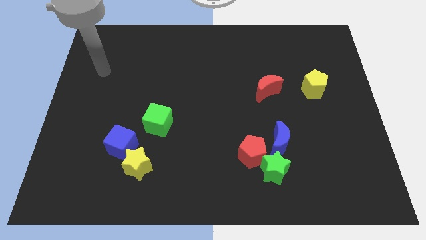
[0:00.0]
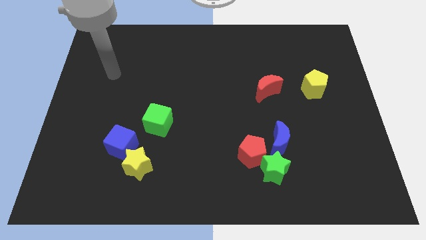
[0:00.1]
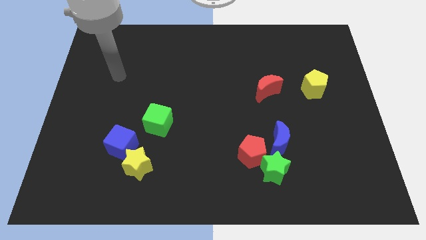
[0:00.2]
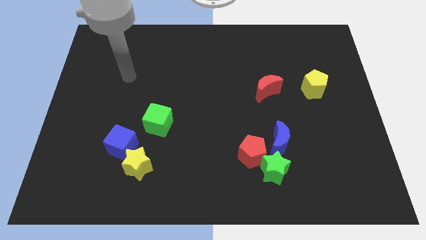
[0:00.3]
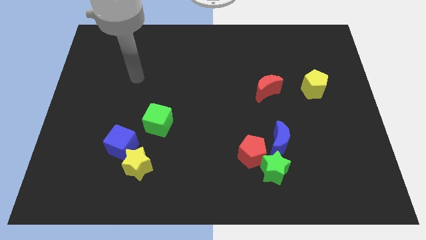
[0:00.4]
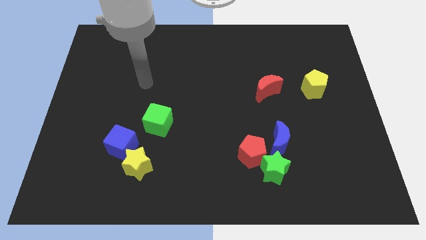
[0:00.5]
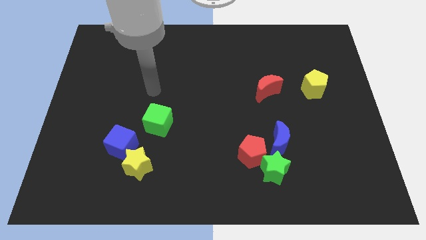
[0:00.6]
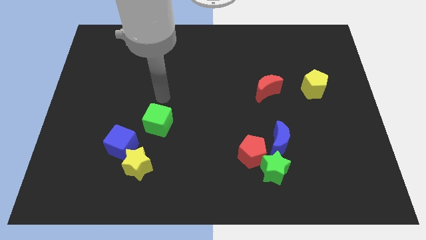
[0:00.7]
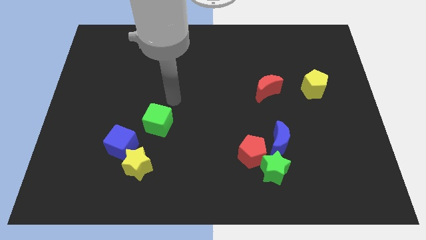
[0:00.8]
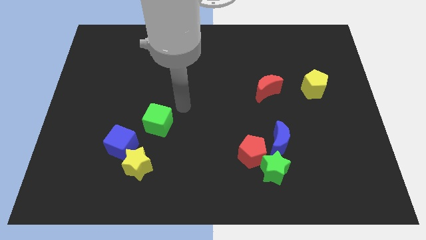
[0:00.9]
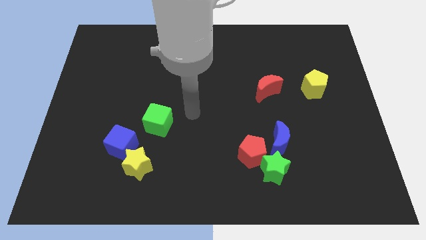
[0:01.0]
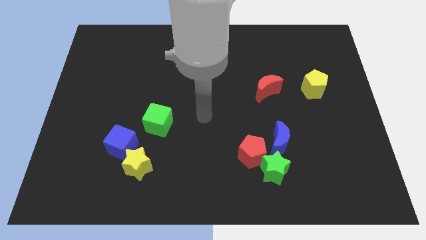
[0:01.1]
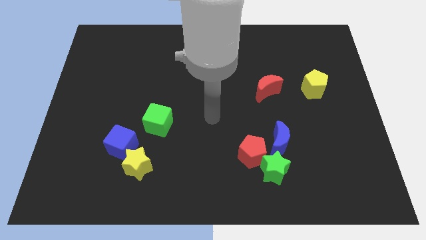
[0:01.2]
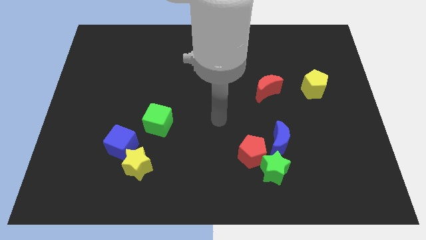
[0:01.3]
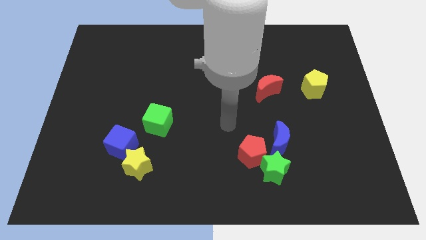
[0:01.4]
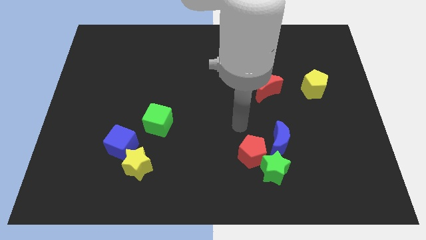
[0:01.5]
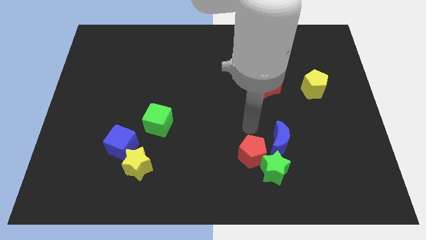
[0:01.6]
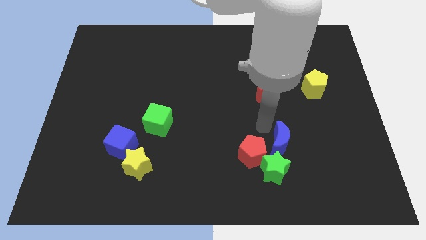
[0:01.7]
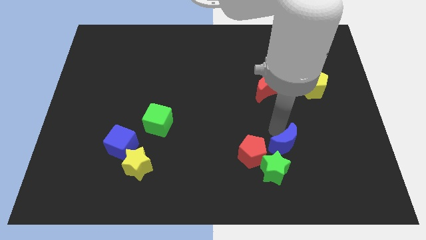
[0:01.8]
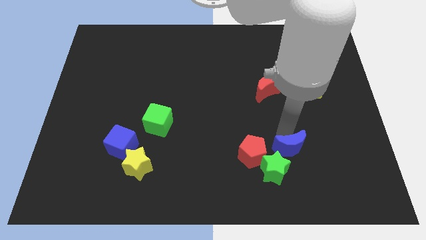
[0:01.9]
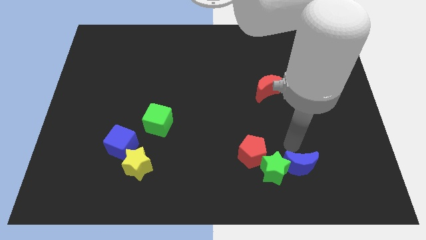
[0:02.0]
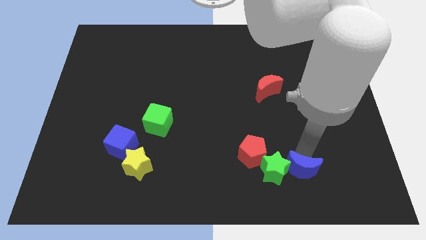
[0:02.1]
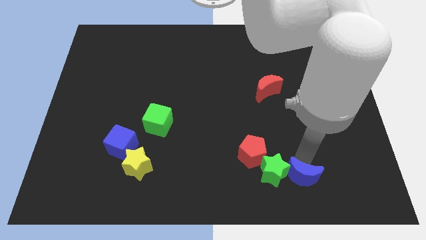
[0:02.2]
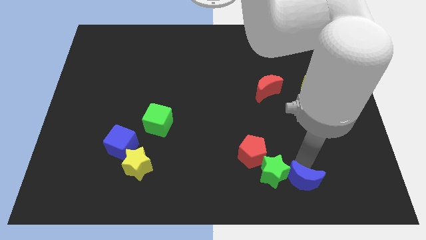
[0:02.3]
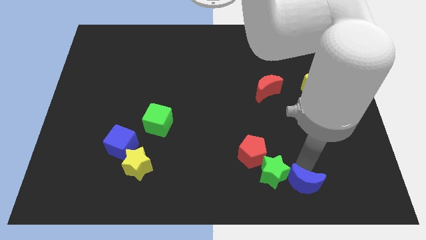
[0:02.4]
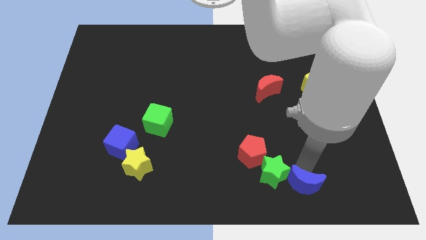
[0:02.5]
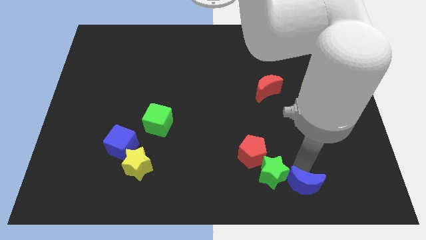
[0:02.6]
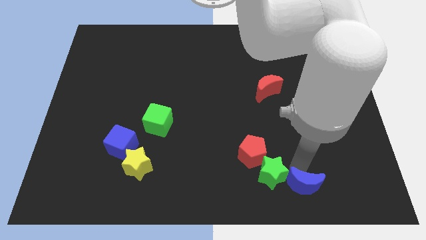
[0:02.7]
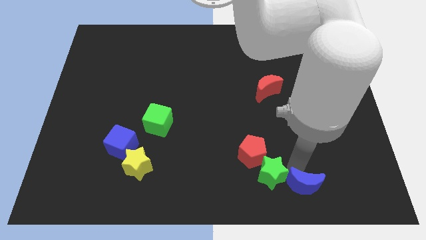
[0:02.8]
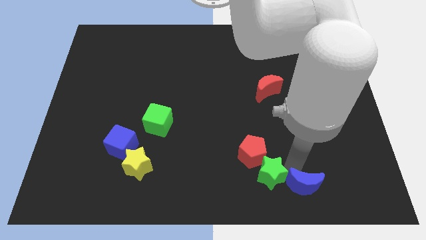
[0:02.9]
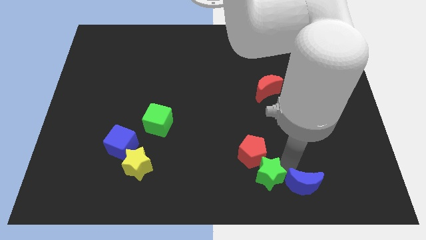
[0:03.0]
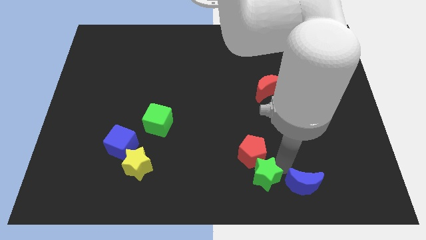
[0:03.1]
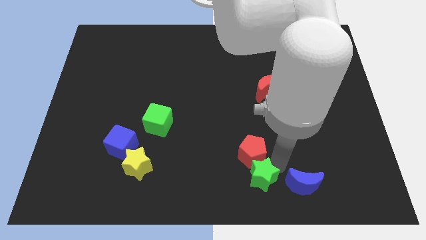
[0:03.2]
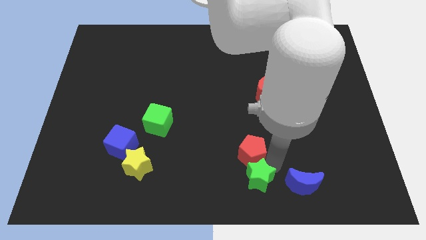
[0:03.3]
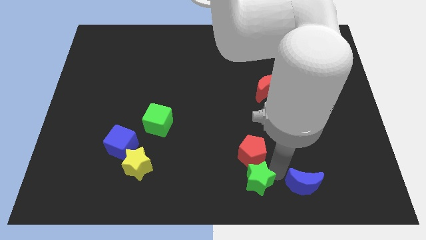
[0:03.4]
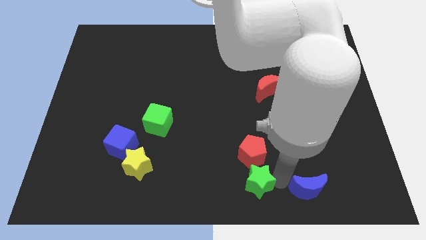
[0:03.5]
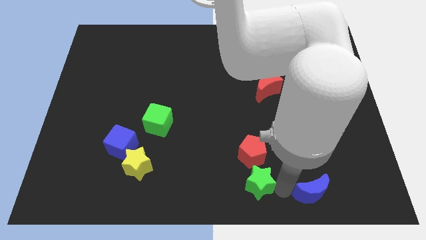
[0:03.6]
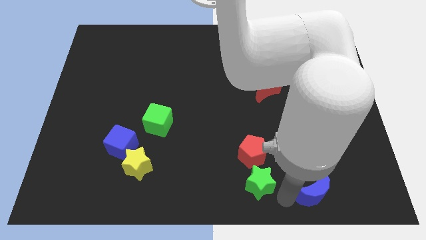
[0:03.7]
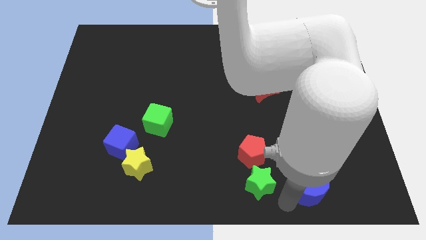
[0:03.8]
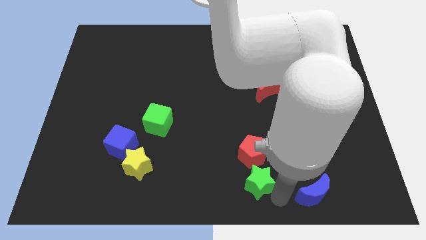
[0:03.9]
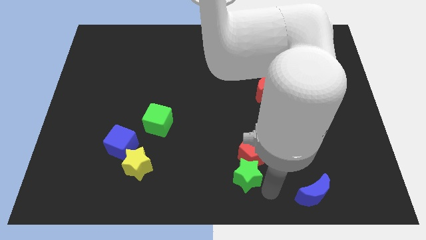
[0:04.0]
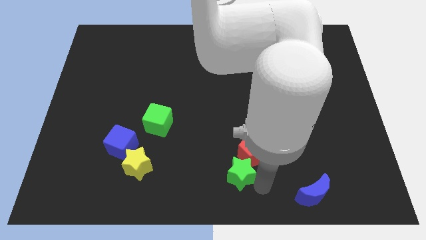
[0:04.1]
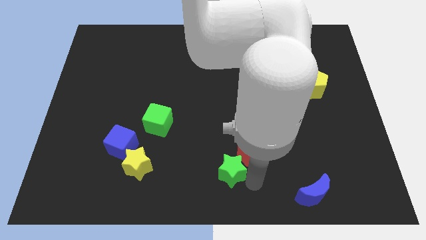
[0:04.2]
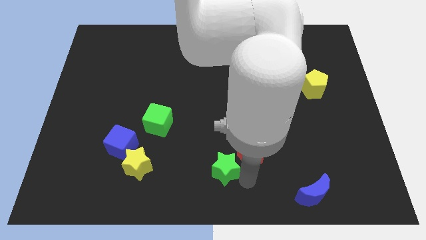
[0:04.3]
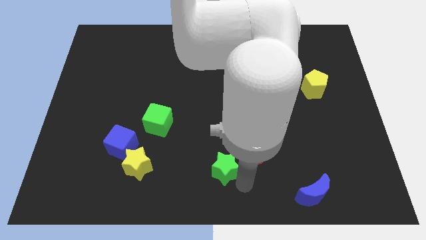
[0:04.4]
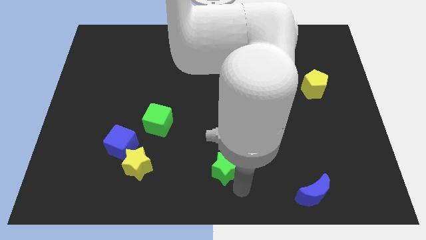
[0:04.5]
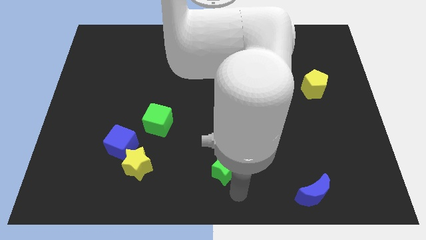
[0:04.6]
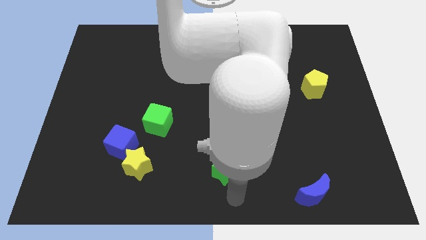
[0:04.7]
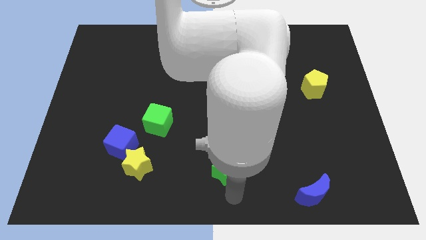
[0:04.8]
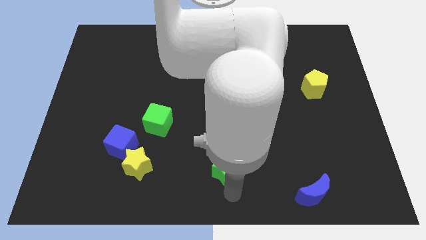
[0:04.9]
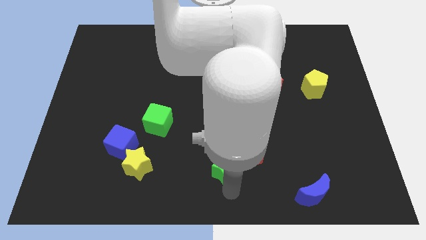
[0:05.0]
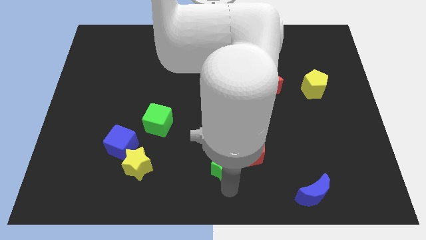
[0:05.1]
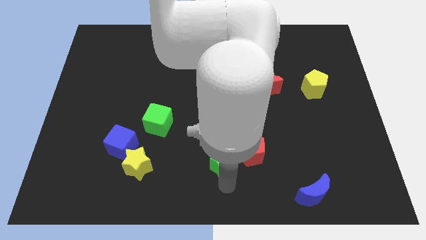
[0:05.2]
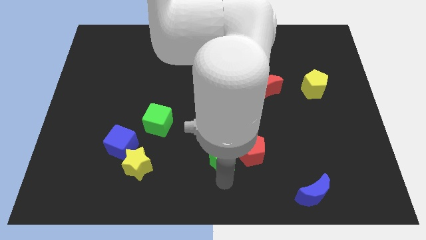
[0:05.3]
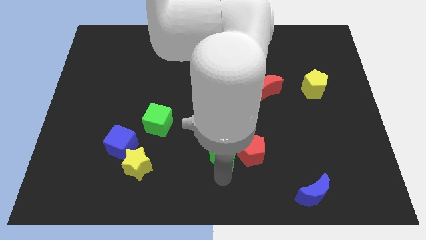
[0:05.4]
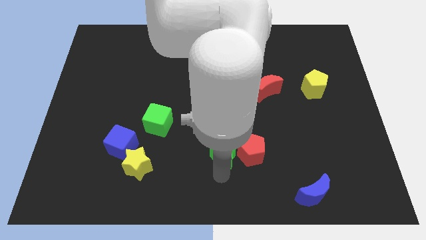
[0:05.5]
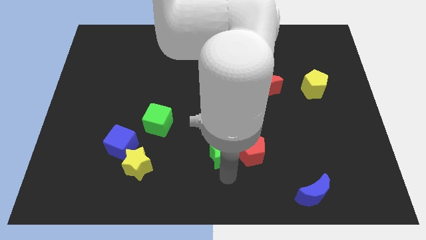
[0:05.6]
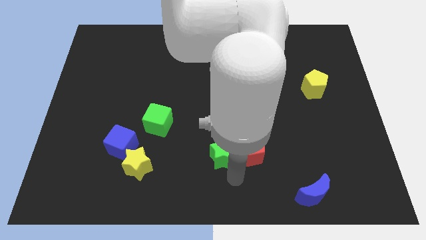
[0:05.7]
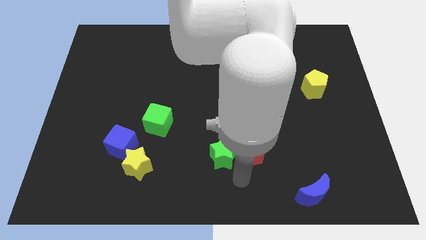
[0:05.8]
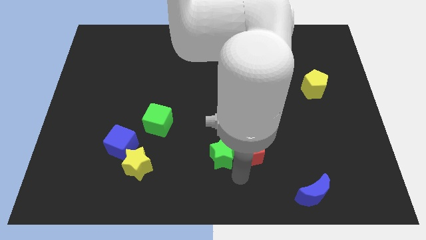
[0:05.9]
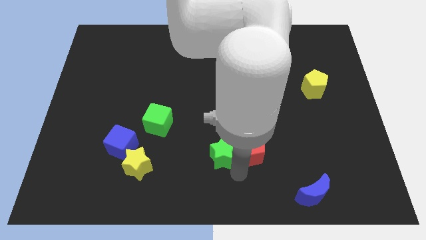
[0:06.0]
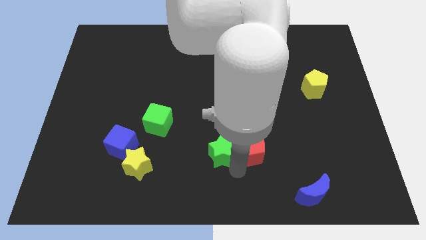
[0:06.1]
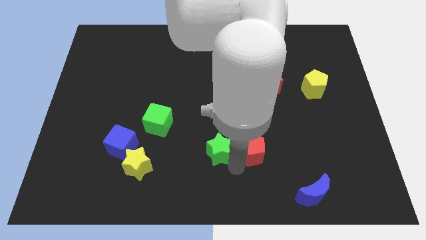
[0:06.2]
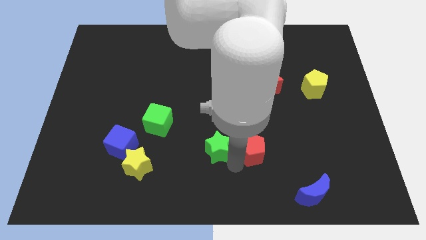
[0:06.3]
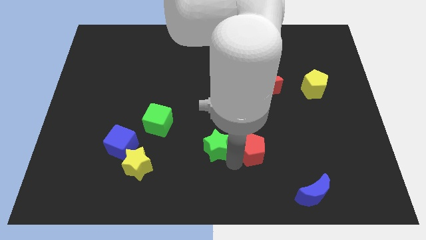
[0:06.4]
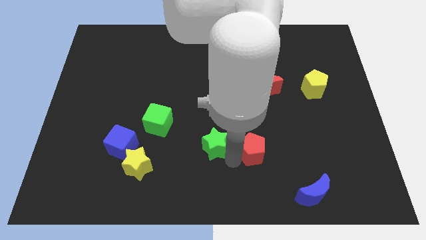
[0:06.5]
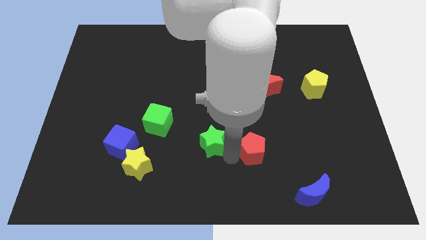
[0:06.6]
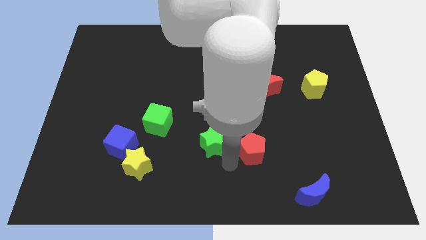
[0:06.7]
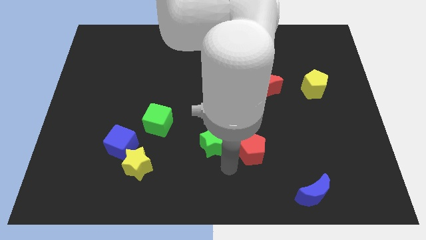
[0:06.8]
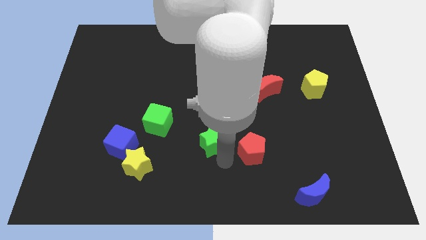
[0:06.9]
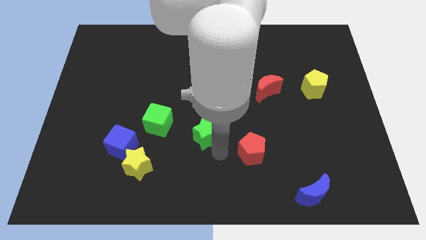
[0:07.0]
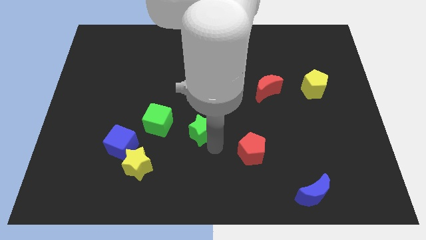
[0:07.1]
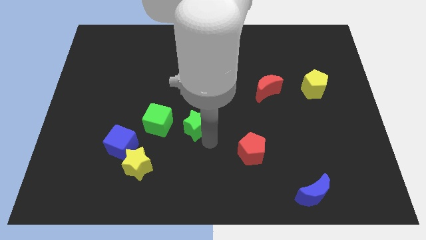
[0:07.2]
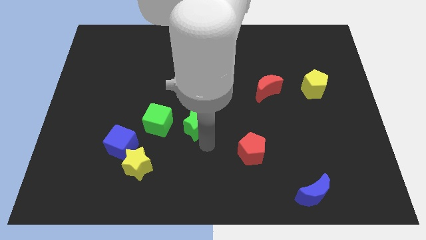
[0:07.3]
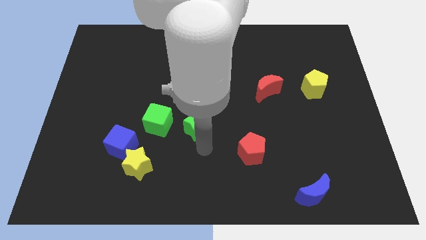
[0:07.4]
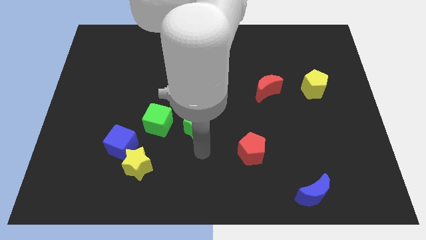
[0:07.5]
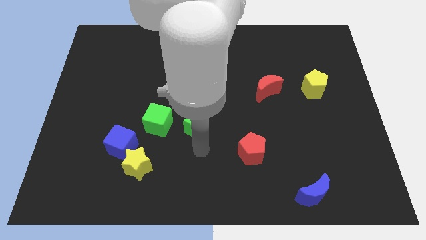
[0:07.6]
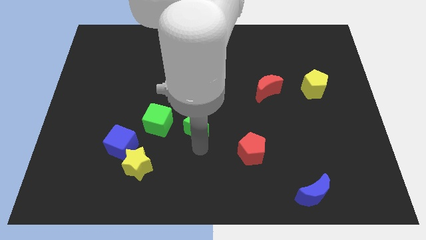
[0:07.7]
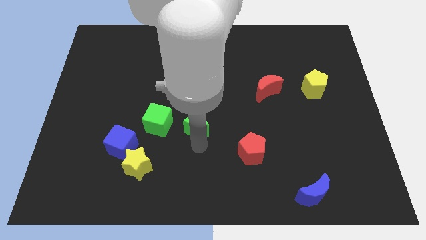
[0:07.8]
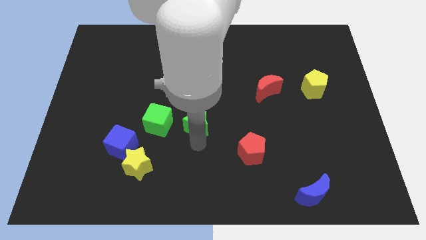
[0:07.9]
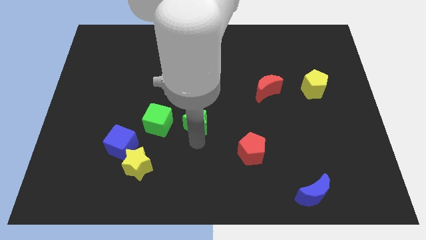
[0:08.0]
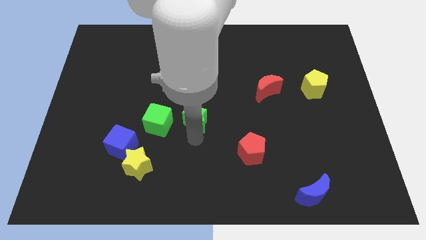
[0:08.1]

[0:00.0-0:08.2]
slide the green star up and then left
